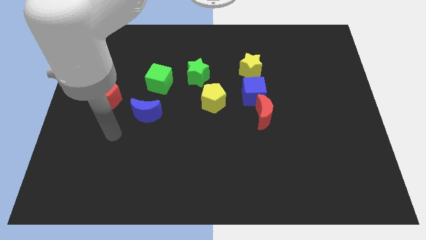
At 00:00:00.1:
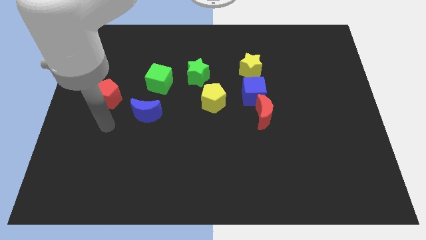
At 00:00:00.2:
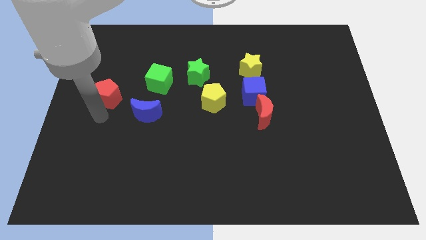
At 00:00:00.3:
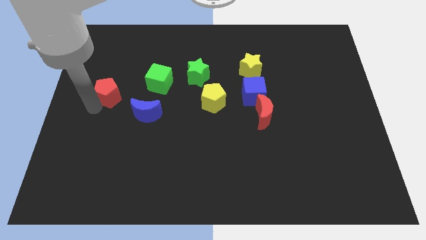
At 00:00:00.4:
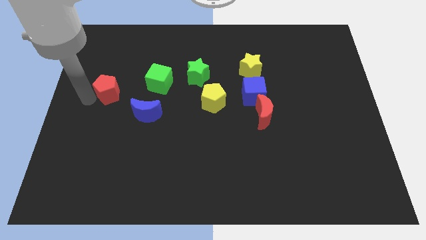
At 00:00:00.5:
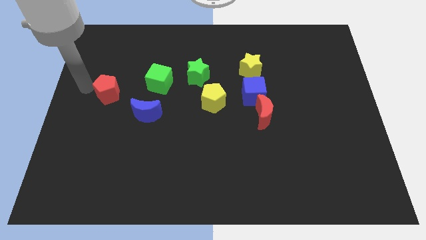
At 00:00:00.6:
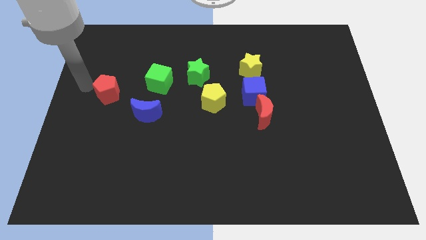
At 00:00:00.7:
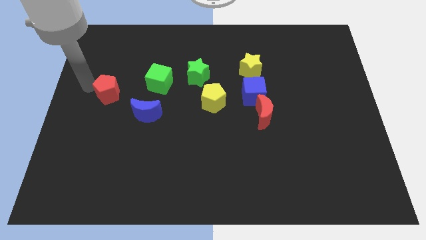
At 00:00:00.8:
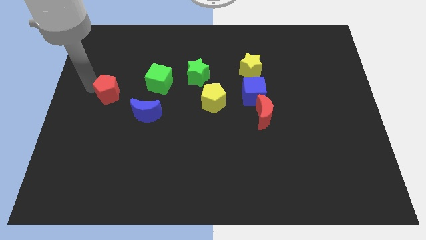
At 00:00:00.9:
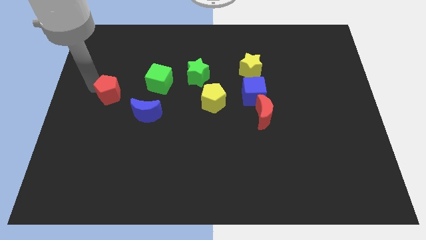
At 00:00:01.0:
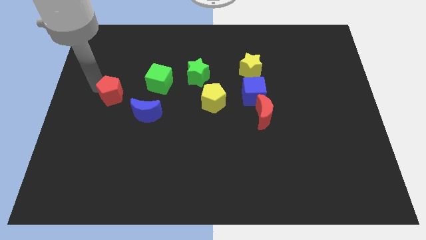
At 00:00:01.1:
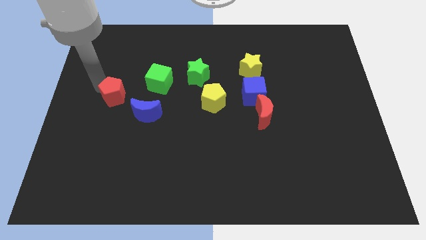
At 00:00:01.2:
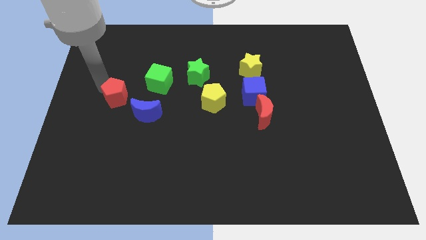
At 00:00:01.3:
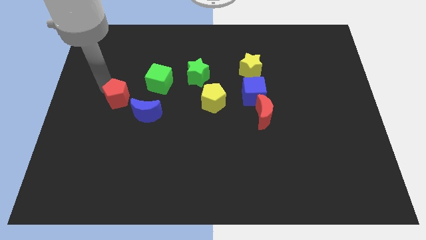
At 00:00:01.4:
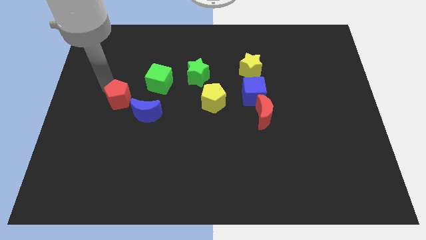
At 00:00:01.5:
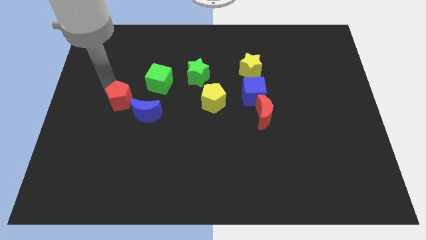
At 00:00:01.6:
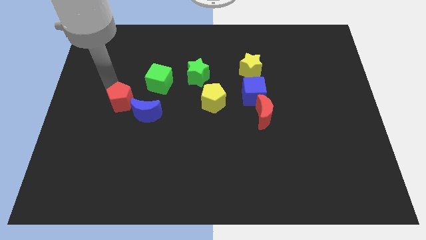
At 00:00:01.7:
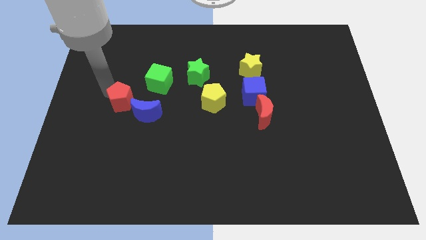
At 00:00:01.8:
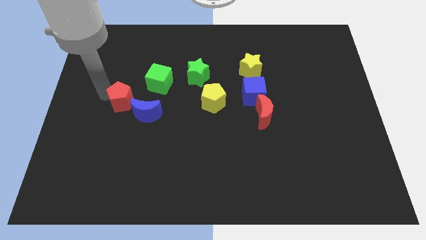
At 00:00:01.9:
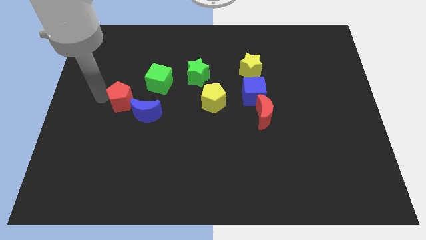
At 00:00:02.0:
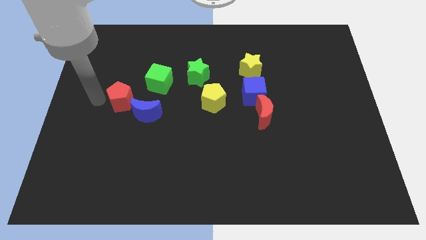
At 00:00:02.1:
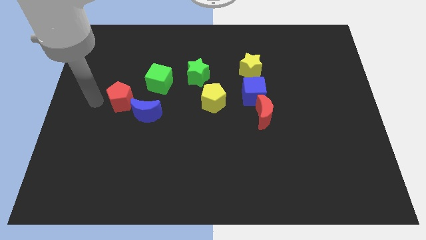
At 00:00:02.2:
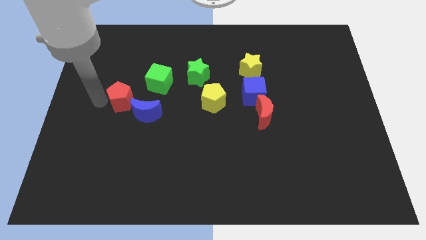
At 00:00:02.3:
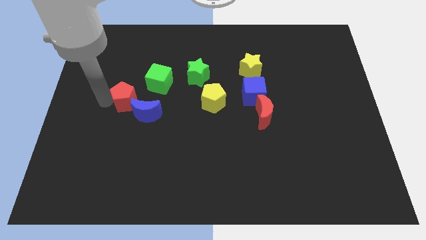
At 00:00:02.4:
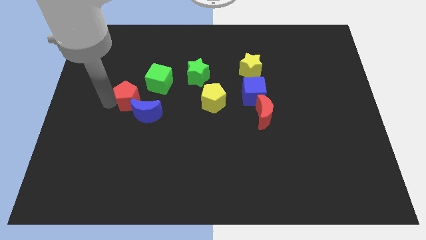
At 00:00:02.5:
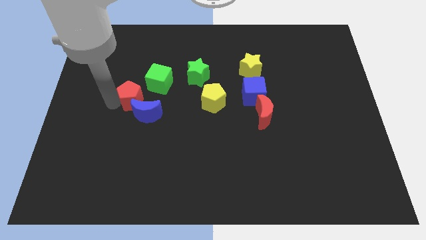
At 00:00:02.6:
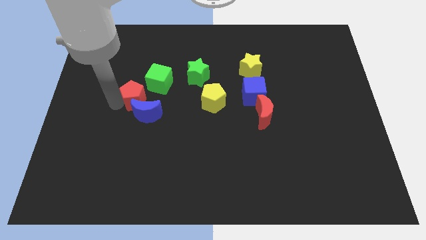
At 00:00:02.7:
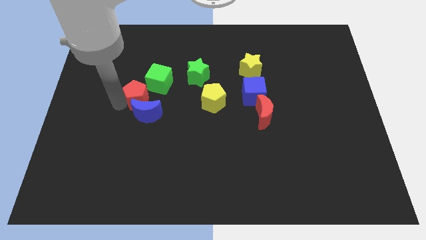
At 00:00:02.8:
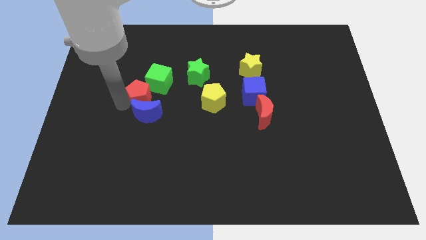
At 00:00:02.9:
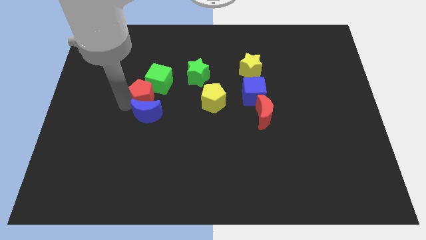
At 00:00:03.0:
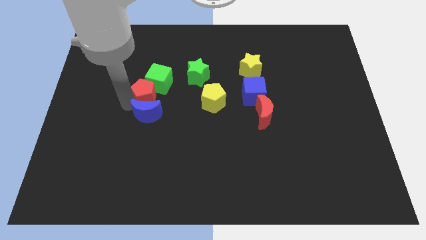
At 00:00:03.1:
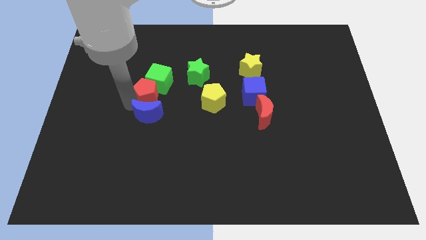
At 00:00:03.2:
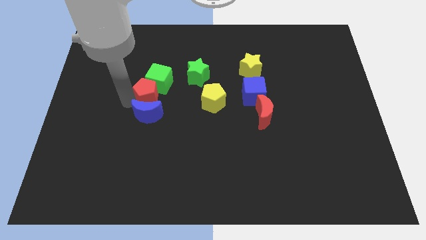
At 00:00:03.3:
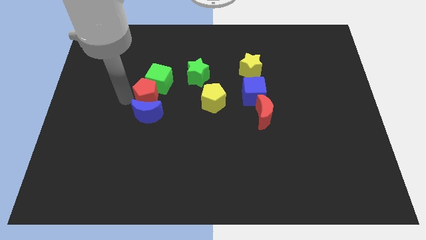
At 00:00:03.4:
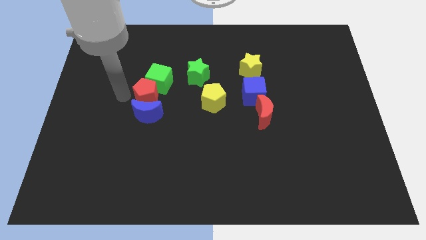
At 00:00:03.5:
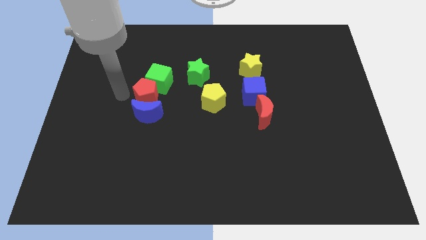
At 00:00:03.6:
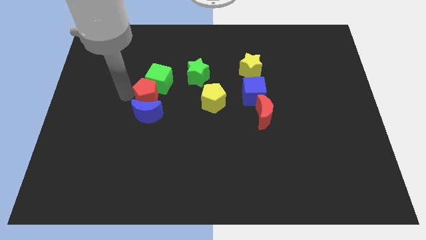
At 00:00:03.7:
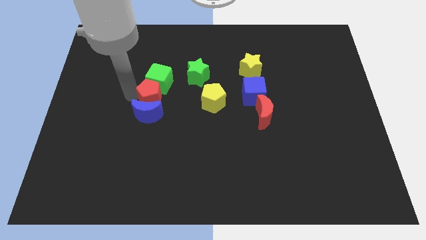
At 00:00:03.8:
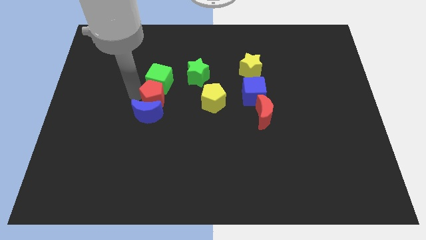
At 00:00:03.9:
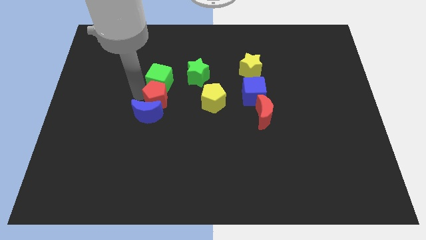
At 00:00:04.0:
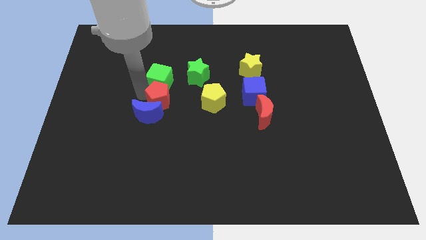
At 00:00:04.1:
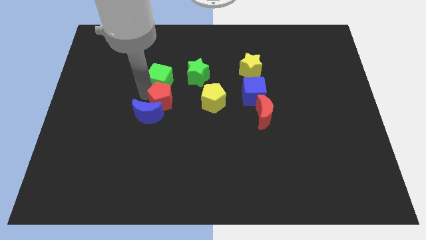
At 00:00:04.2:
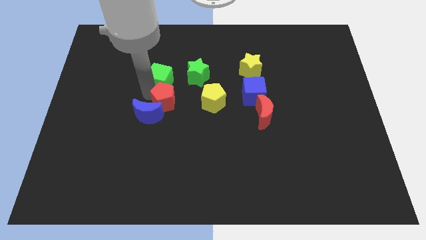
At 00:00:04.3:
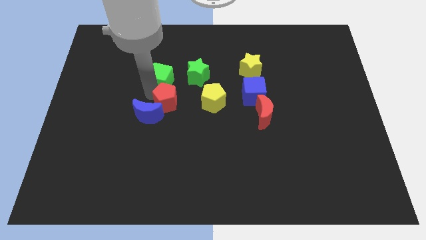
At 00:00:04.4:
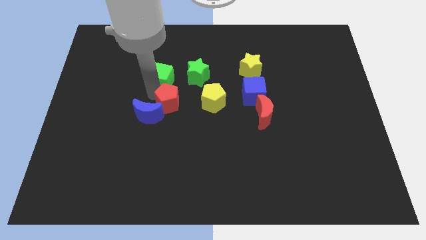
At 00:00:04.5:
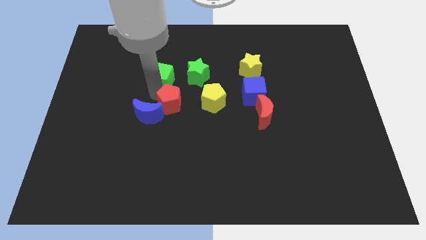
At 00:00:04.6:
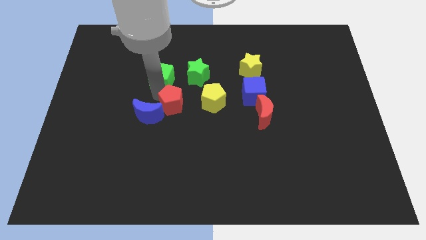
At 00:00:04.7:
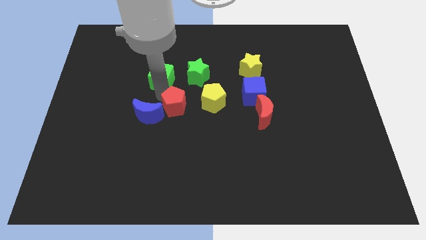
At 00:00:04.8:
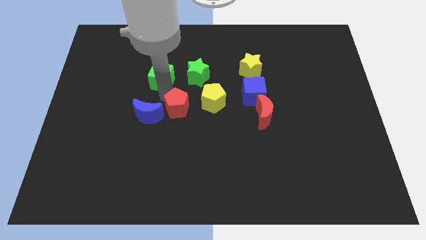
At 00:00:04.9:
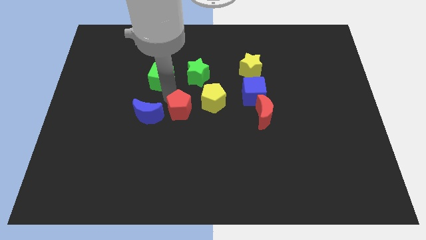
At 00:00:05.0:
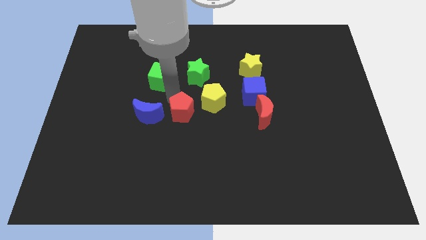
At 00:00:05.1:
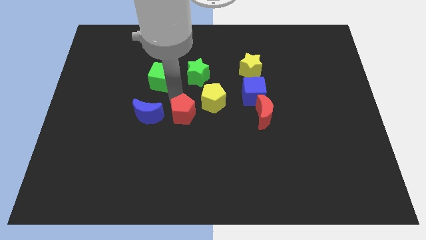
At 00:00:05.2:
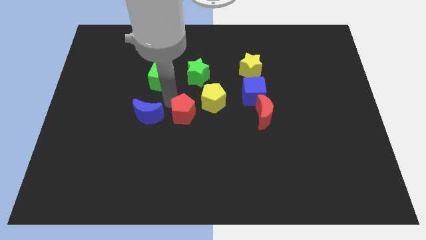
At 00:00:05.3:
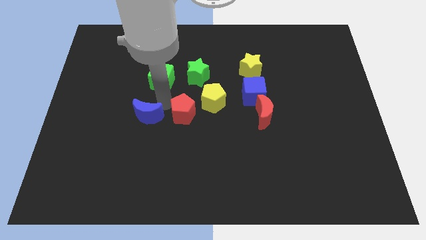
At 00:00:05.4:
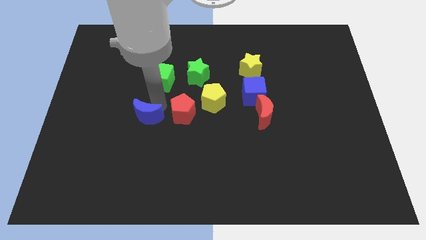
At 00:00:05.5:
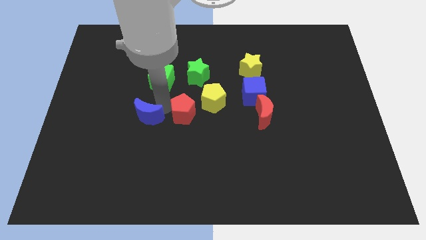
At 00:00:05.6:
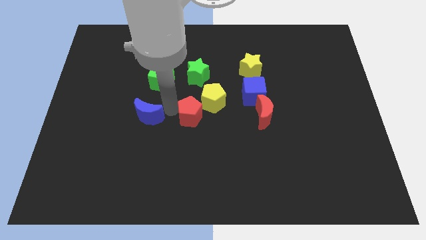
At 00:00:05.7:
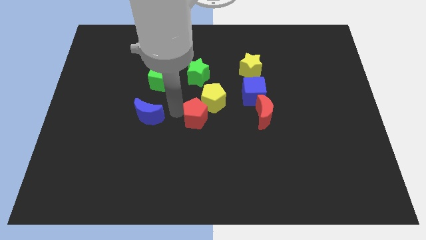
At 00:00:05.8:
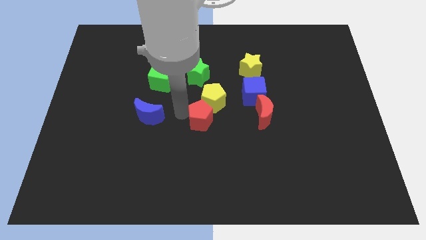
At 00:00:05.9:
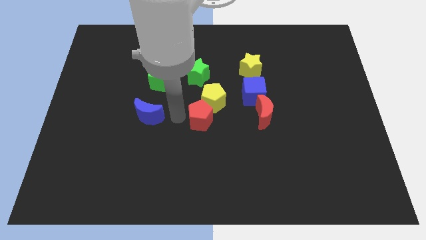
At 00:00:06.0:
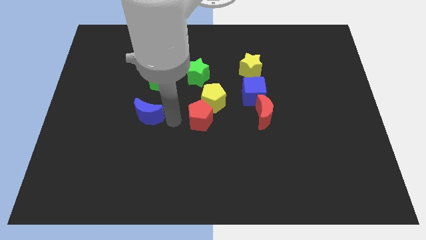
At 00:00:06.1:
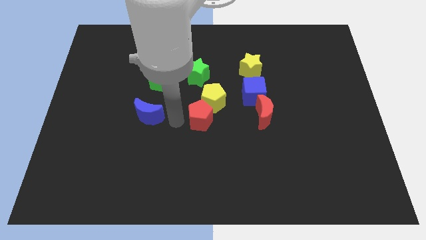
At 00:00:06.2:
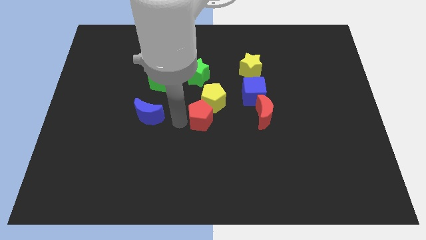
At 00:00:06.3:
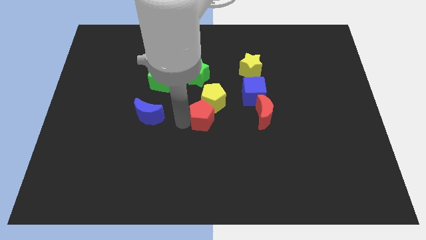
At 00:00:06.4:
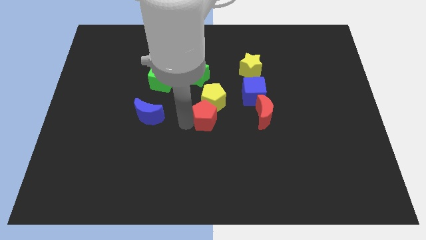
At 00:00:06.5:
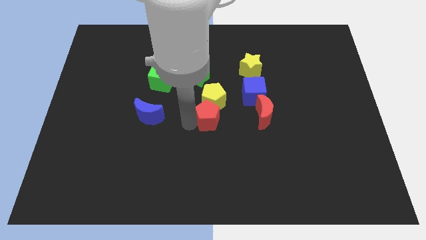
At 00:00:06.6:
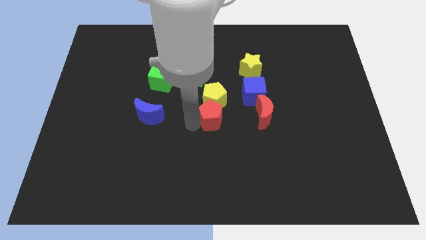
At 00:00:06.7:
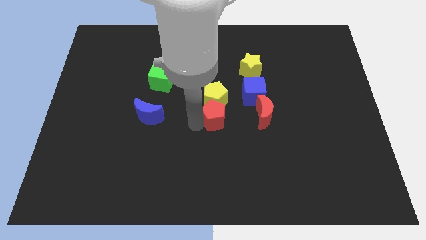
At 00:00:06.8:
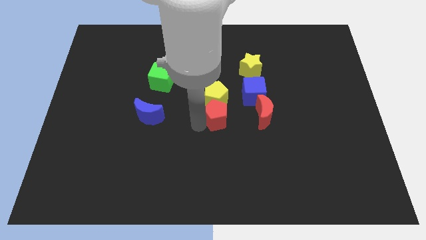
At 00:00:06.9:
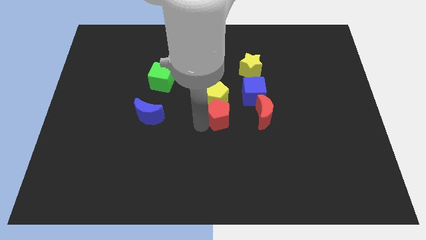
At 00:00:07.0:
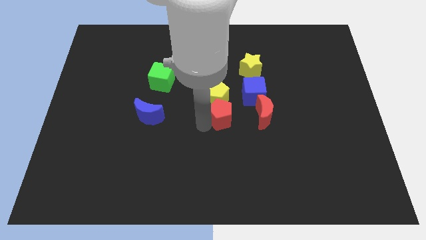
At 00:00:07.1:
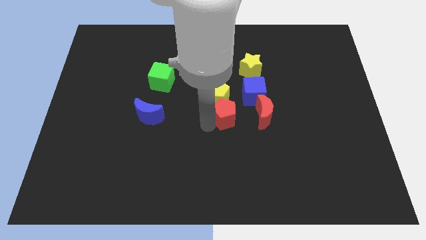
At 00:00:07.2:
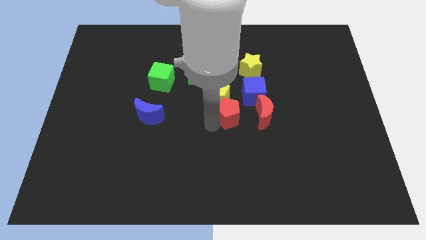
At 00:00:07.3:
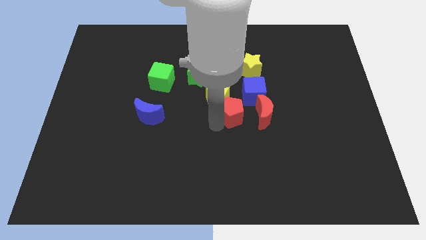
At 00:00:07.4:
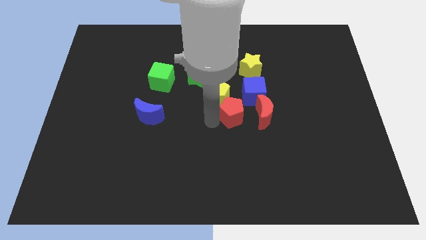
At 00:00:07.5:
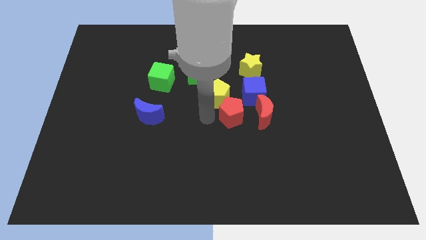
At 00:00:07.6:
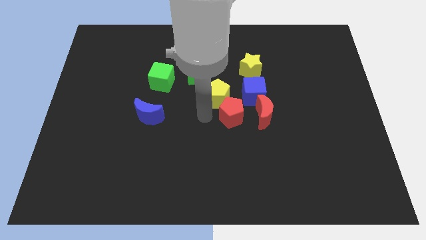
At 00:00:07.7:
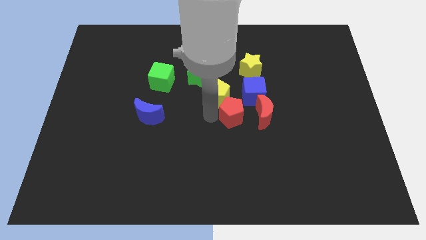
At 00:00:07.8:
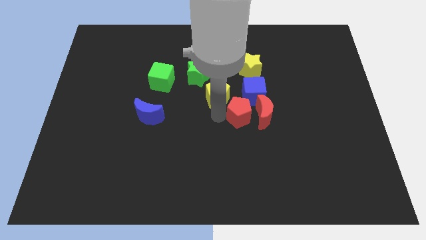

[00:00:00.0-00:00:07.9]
put the red pentagon close to the red moon
